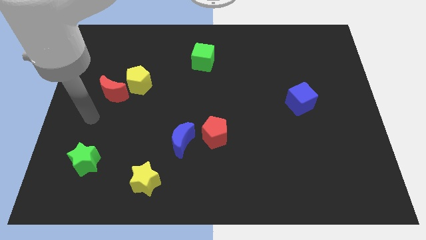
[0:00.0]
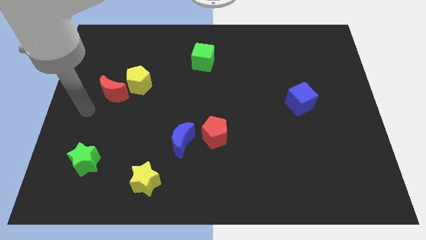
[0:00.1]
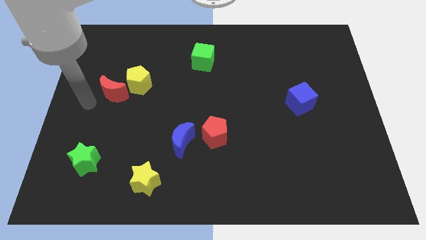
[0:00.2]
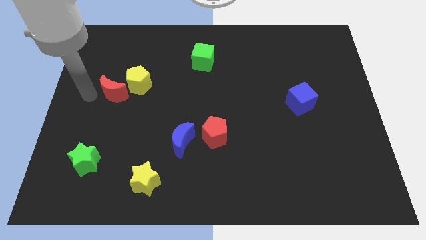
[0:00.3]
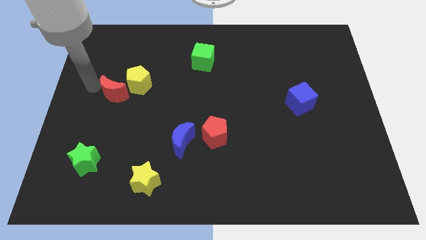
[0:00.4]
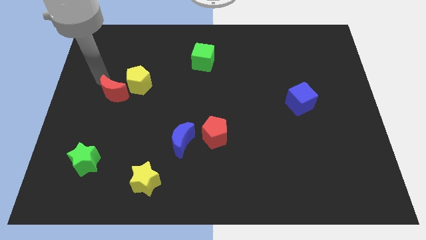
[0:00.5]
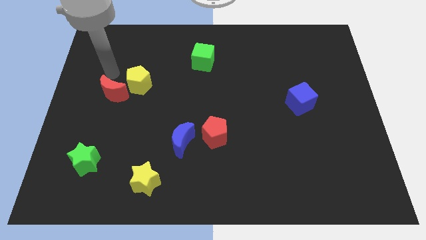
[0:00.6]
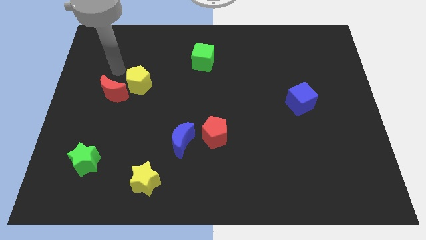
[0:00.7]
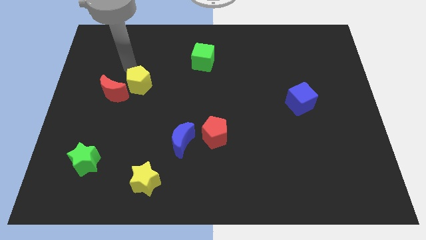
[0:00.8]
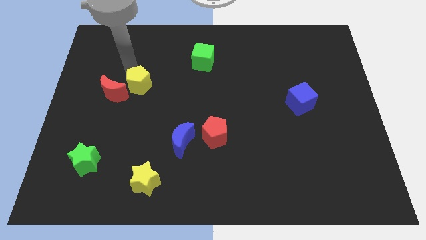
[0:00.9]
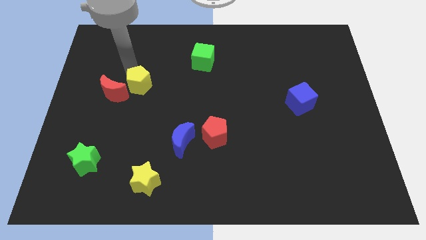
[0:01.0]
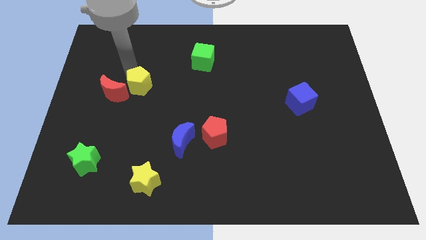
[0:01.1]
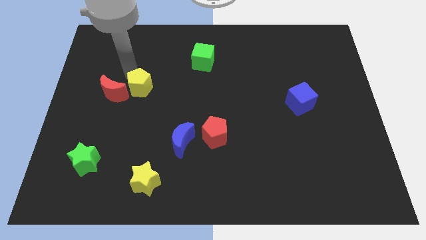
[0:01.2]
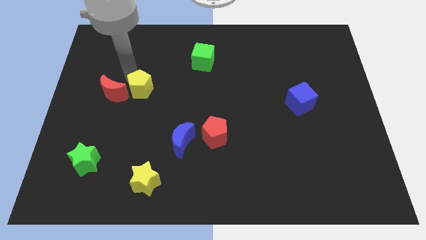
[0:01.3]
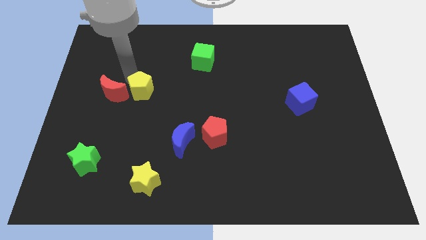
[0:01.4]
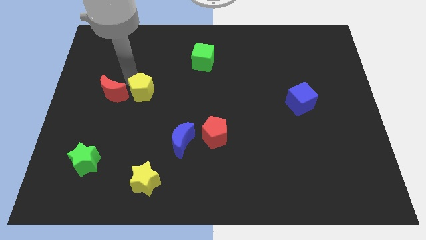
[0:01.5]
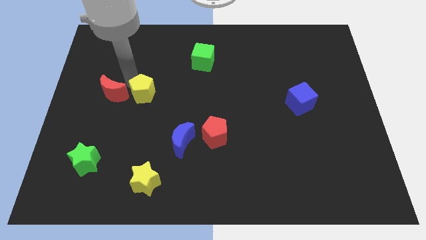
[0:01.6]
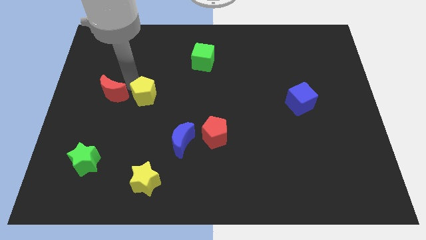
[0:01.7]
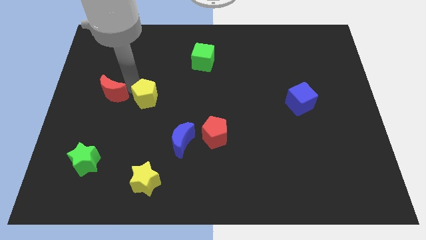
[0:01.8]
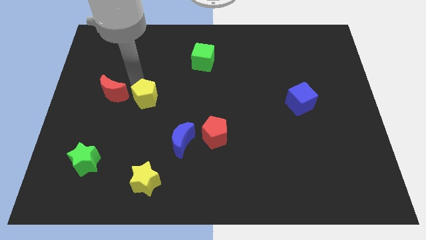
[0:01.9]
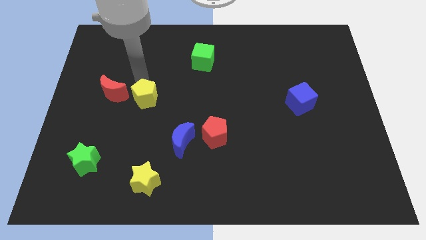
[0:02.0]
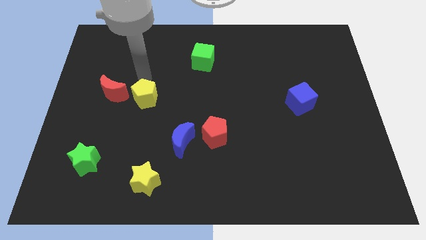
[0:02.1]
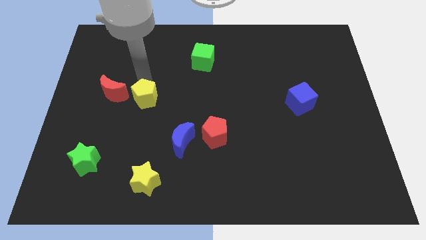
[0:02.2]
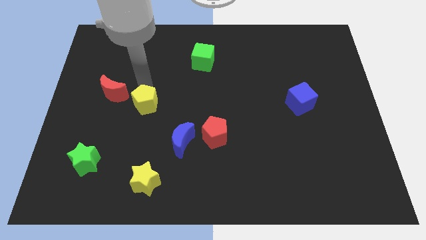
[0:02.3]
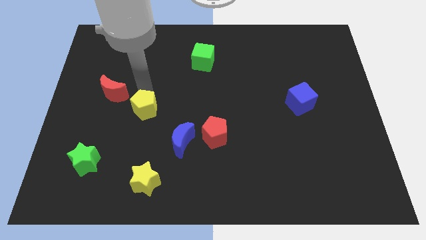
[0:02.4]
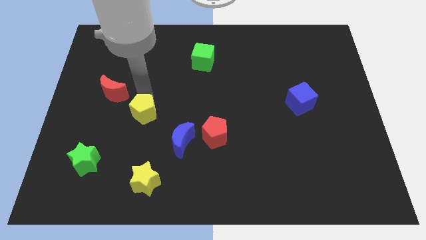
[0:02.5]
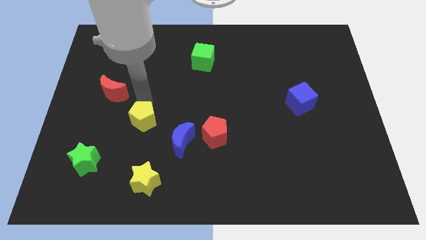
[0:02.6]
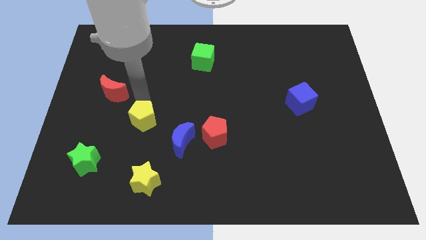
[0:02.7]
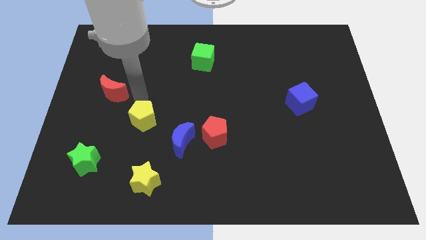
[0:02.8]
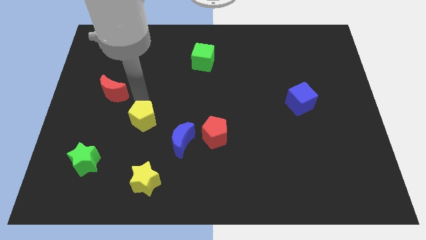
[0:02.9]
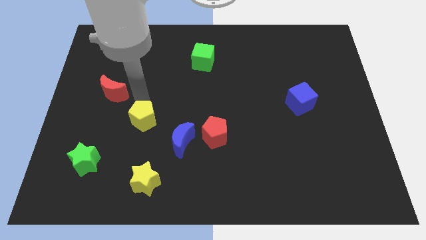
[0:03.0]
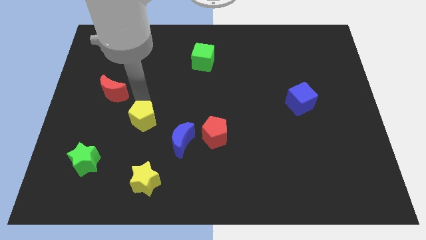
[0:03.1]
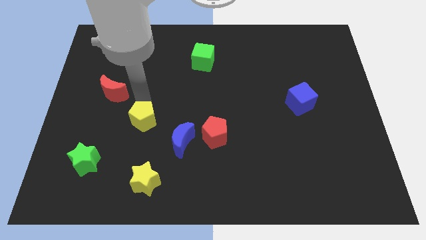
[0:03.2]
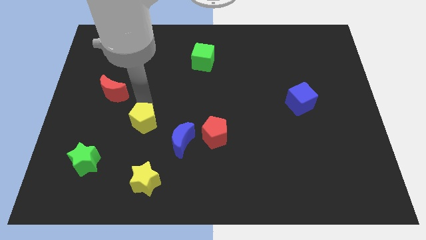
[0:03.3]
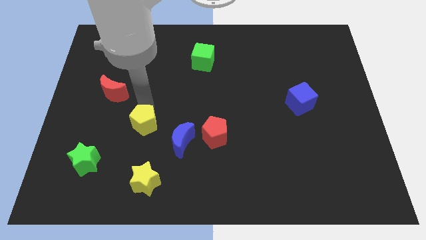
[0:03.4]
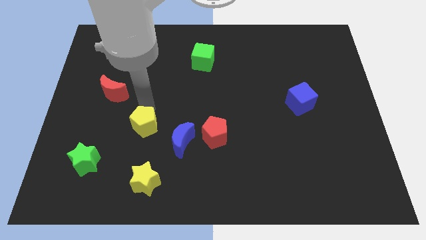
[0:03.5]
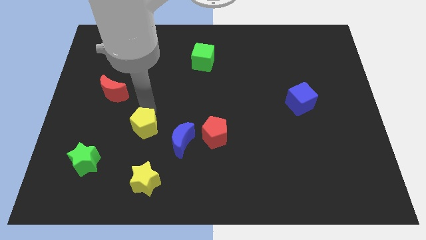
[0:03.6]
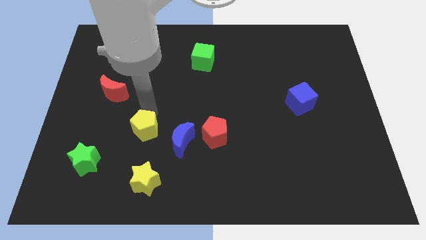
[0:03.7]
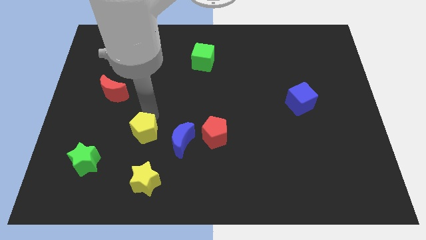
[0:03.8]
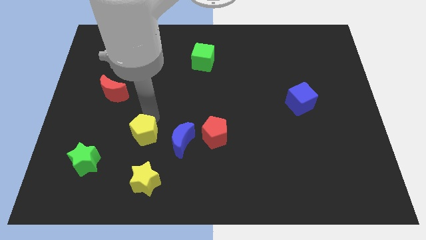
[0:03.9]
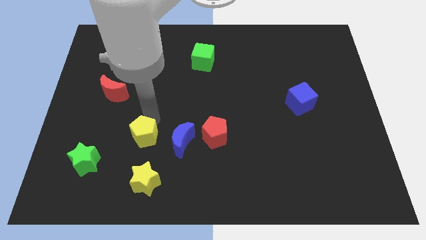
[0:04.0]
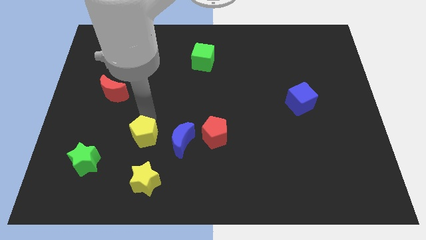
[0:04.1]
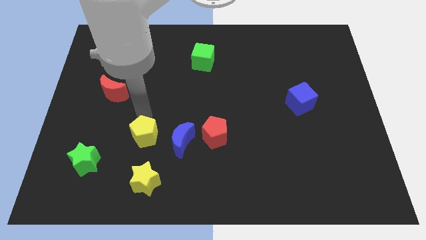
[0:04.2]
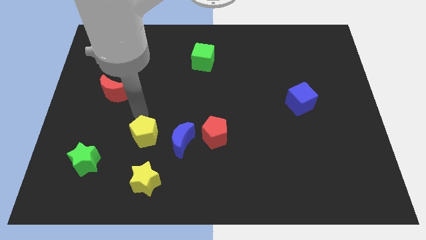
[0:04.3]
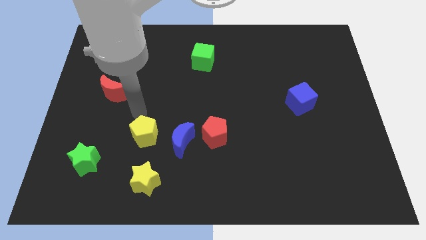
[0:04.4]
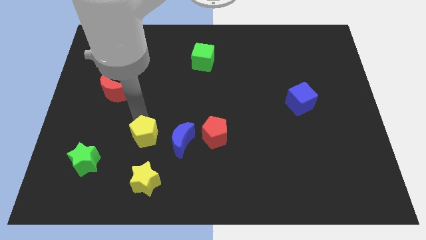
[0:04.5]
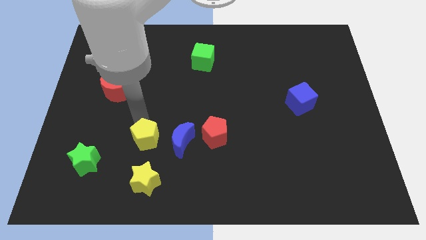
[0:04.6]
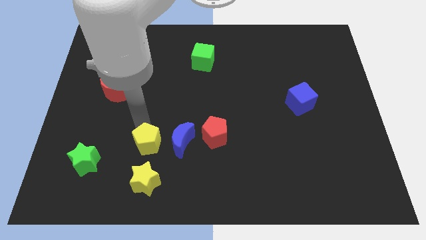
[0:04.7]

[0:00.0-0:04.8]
put the yellow pentagon to the bottom left side of the blue moon

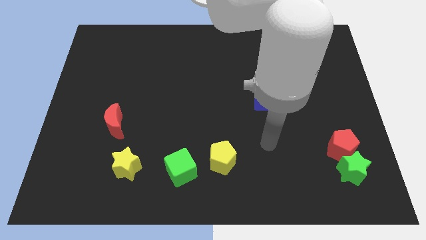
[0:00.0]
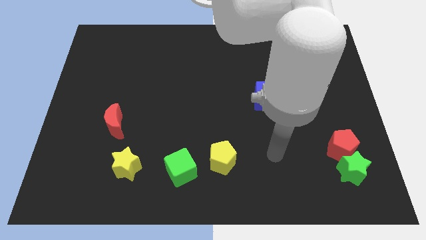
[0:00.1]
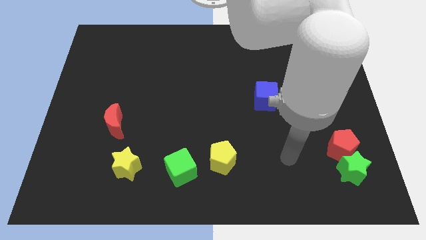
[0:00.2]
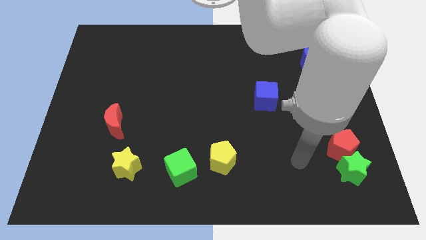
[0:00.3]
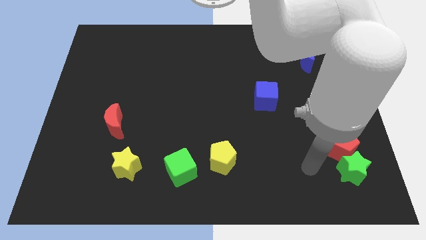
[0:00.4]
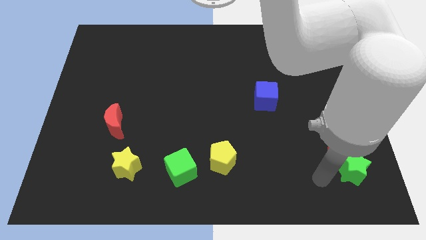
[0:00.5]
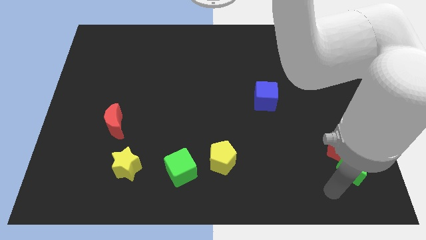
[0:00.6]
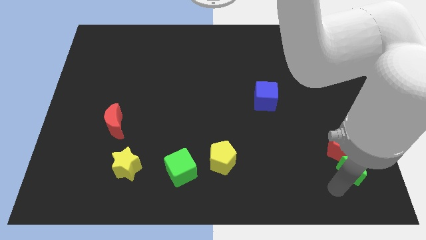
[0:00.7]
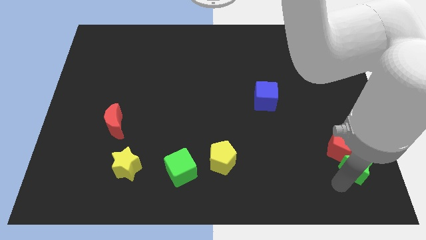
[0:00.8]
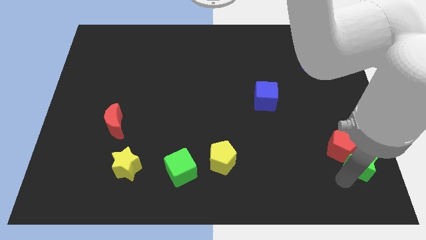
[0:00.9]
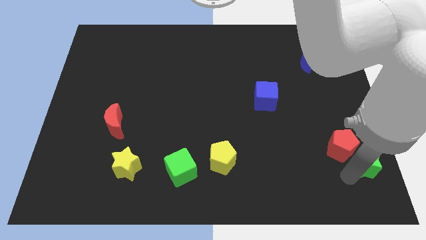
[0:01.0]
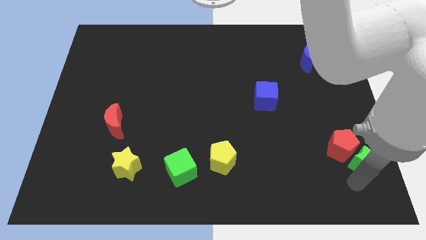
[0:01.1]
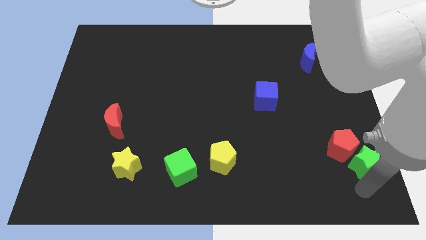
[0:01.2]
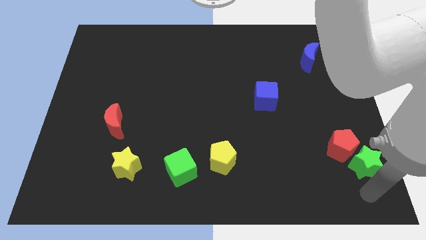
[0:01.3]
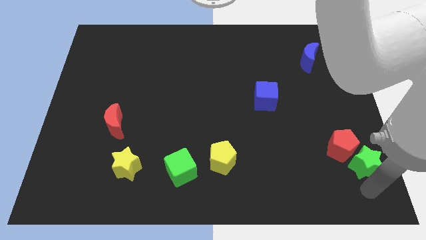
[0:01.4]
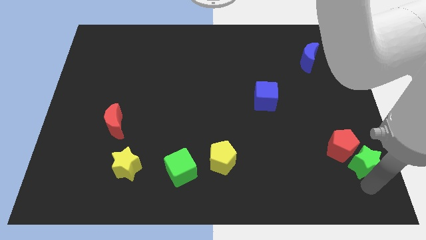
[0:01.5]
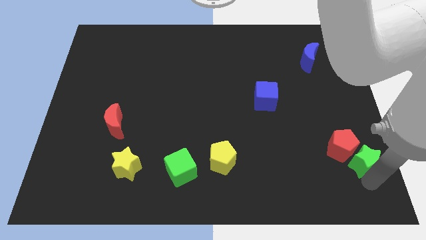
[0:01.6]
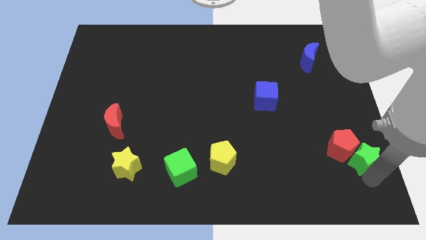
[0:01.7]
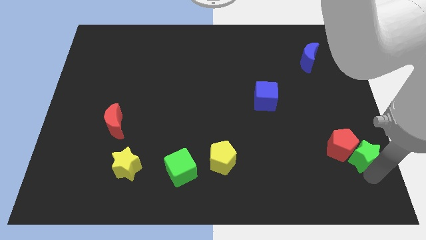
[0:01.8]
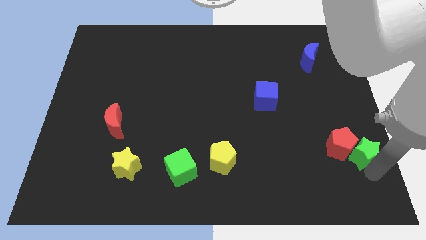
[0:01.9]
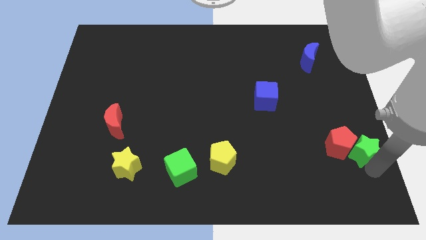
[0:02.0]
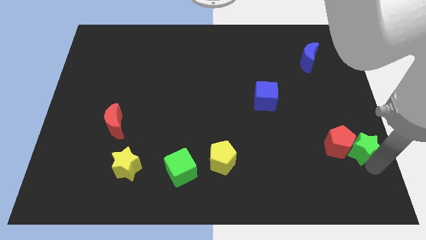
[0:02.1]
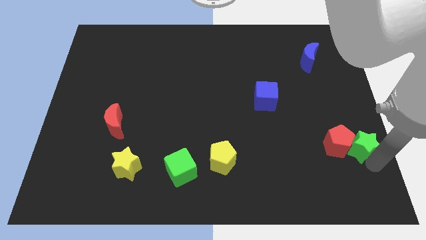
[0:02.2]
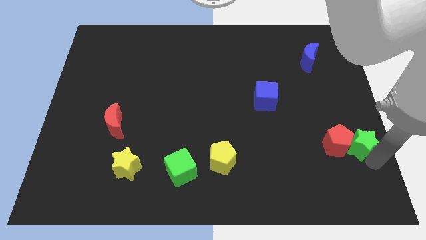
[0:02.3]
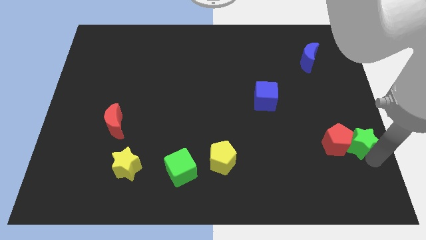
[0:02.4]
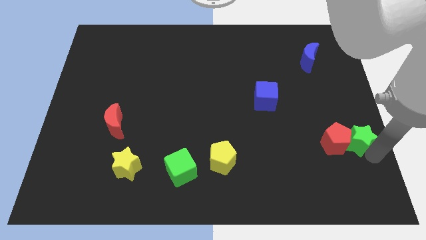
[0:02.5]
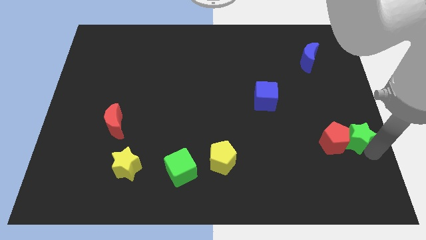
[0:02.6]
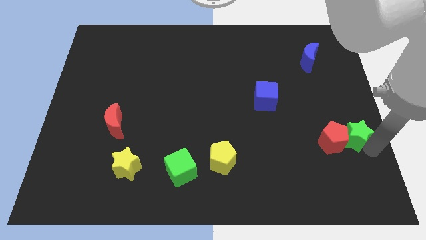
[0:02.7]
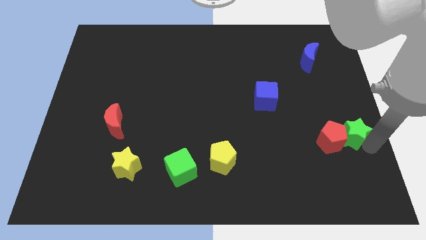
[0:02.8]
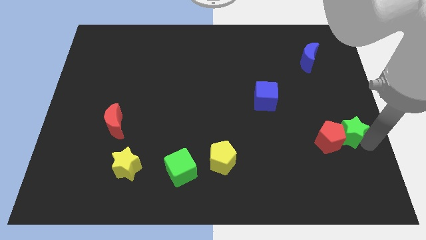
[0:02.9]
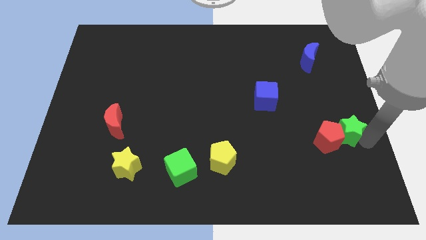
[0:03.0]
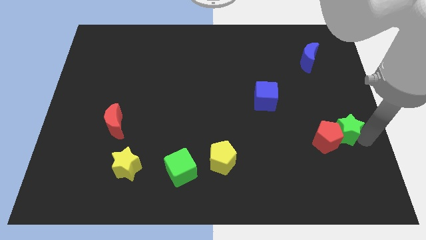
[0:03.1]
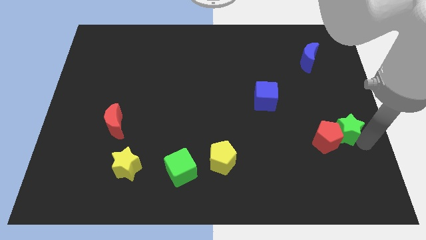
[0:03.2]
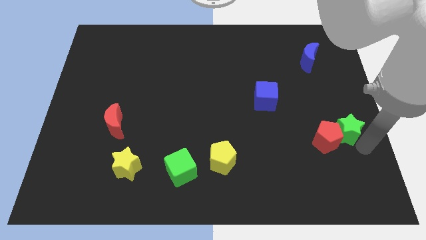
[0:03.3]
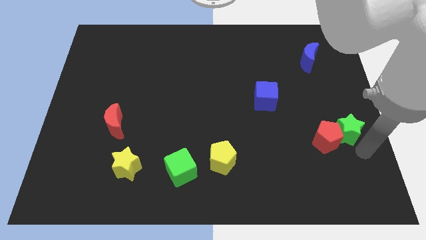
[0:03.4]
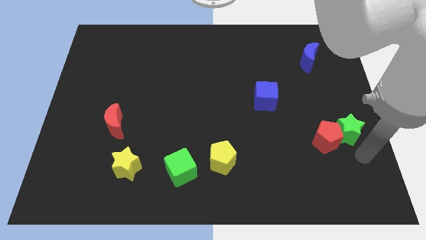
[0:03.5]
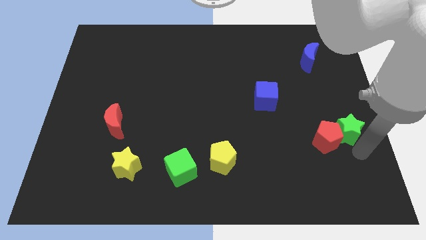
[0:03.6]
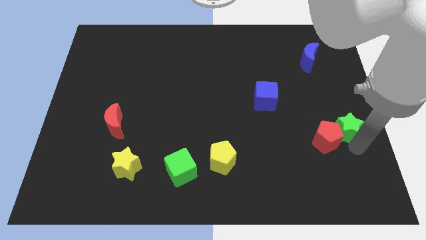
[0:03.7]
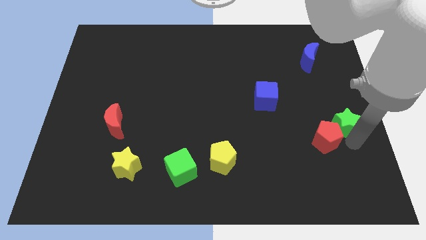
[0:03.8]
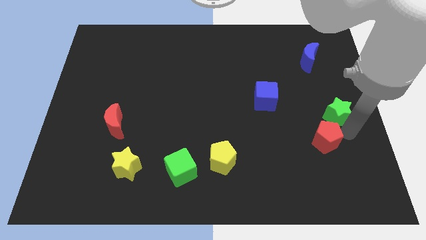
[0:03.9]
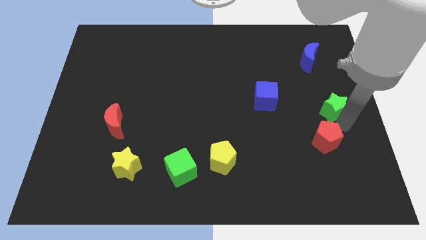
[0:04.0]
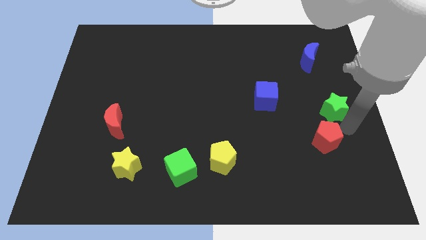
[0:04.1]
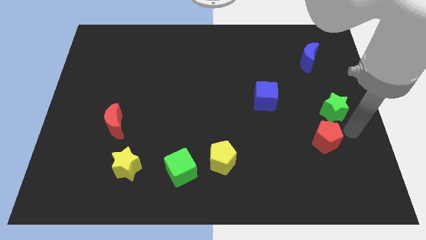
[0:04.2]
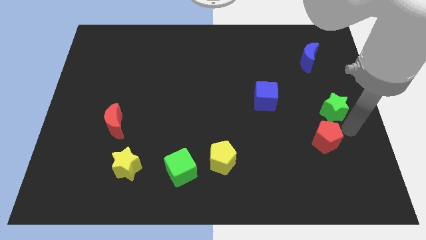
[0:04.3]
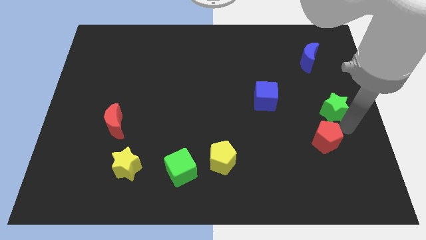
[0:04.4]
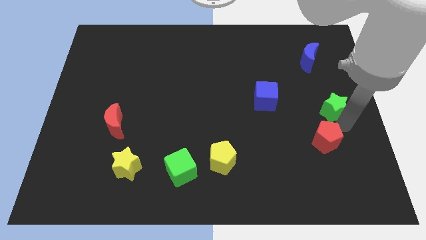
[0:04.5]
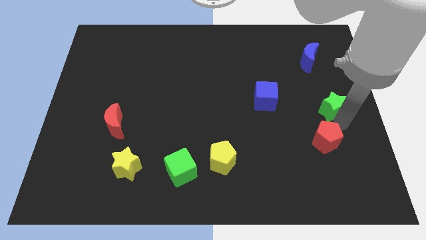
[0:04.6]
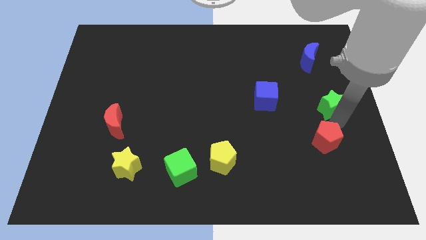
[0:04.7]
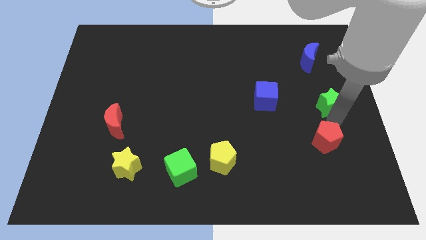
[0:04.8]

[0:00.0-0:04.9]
slide the green star to the bottom of the blue moon
